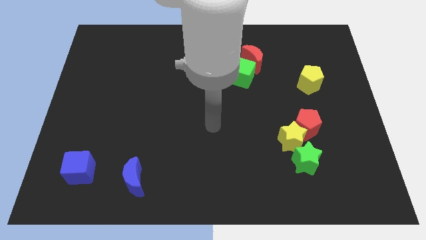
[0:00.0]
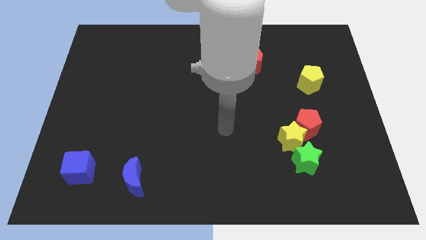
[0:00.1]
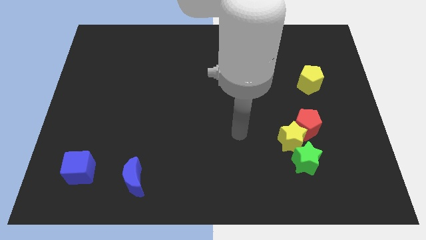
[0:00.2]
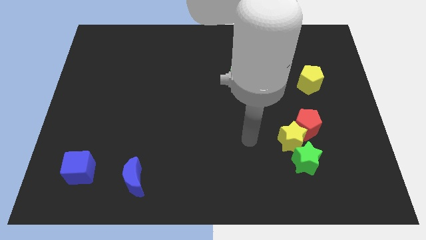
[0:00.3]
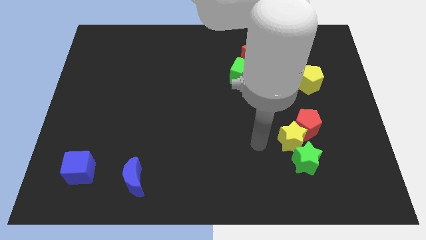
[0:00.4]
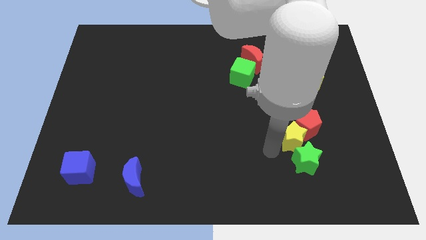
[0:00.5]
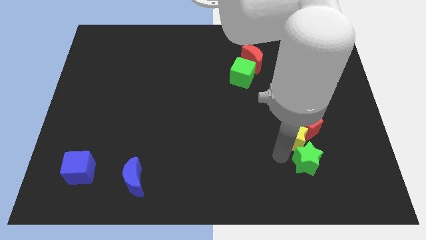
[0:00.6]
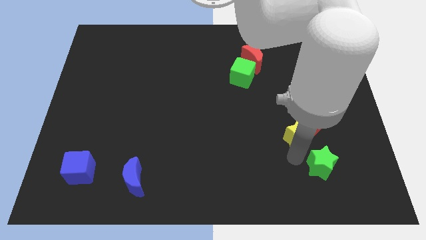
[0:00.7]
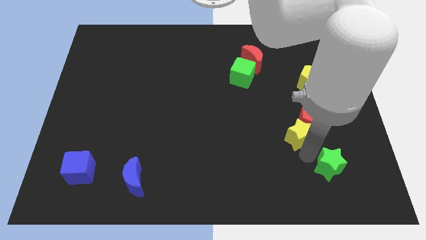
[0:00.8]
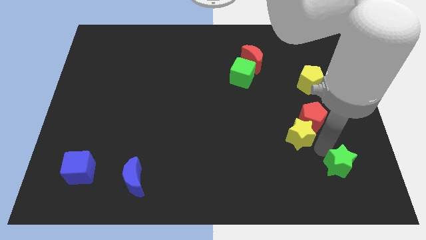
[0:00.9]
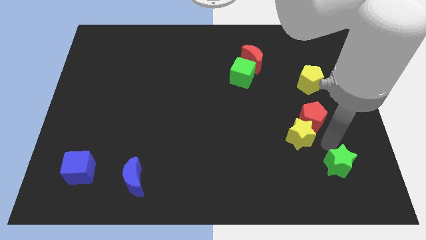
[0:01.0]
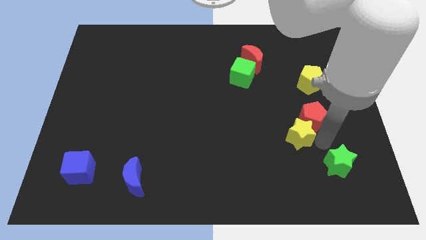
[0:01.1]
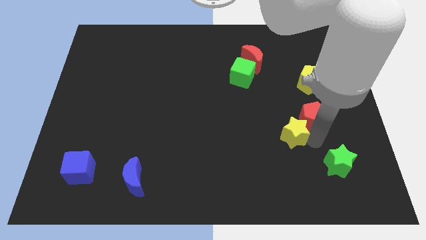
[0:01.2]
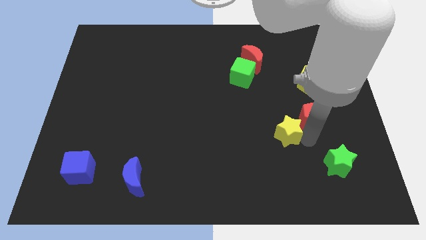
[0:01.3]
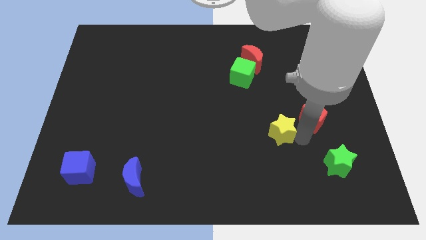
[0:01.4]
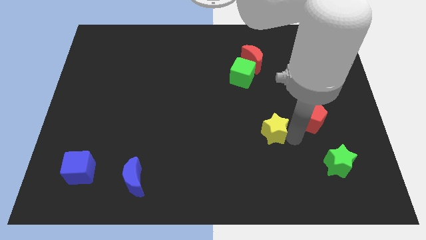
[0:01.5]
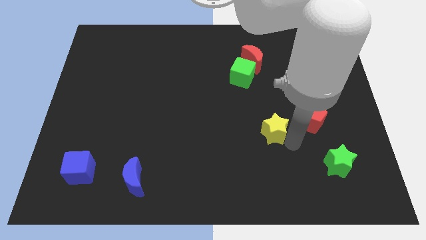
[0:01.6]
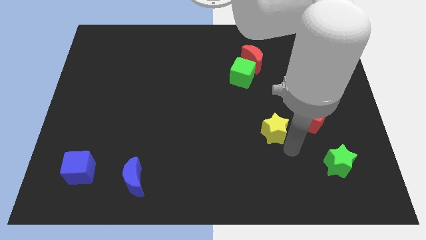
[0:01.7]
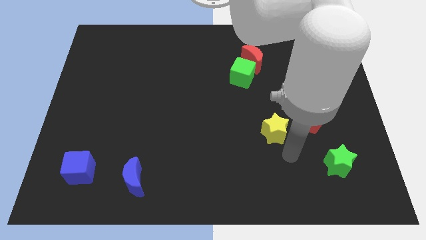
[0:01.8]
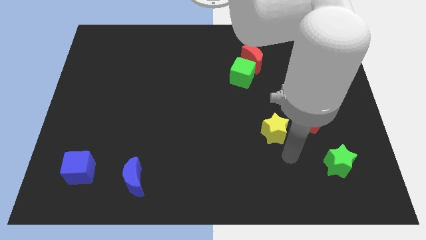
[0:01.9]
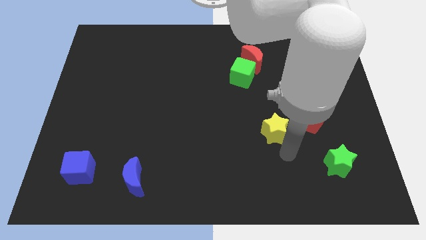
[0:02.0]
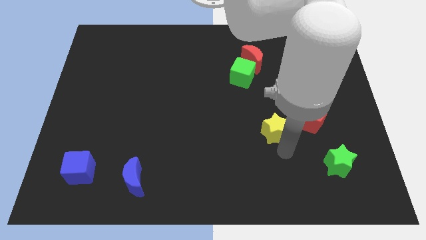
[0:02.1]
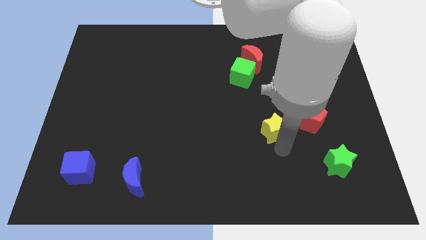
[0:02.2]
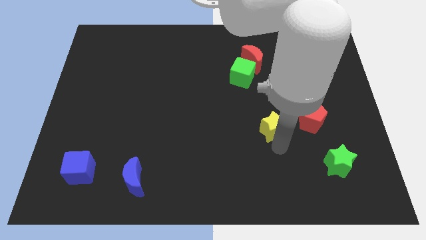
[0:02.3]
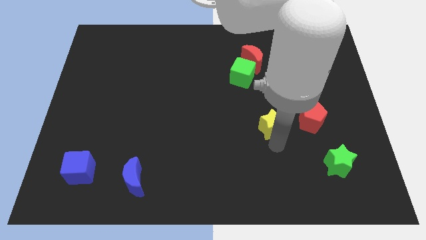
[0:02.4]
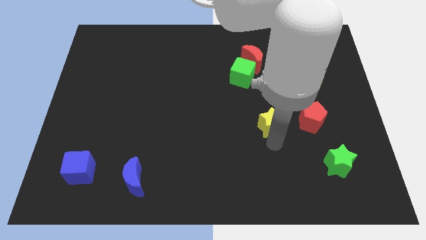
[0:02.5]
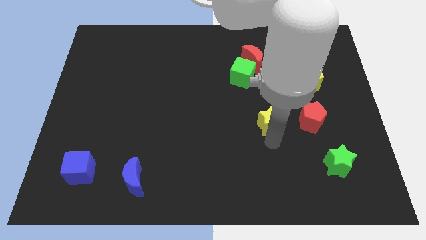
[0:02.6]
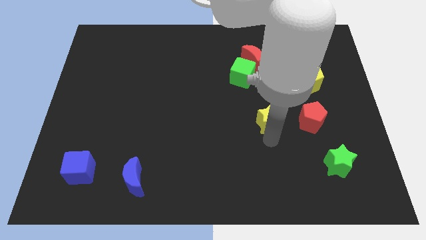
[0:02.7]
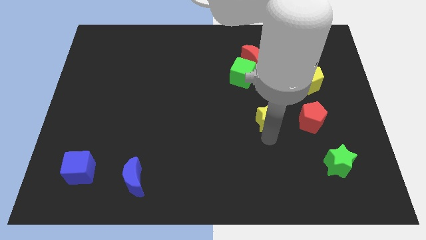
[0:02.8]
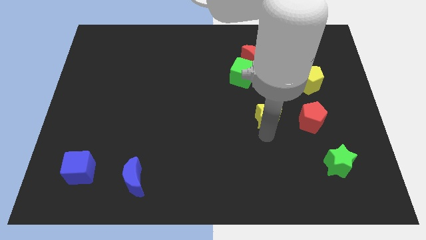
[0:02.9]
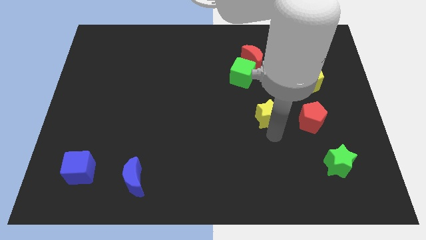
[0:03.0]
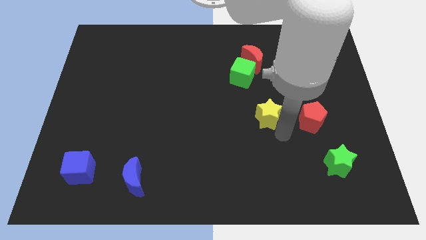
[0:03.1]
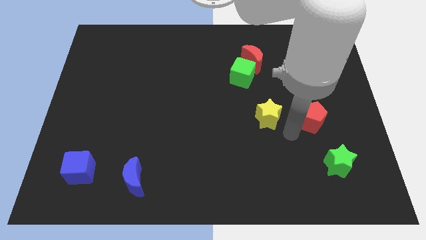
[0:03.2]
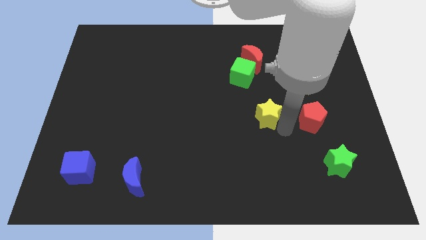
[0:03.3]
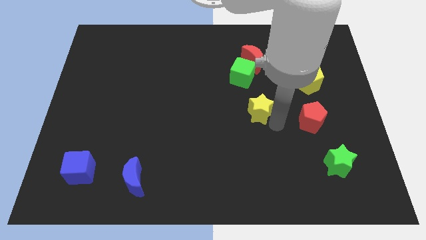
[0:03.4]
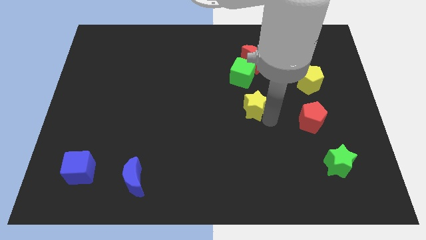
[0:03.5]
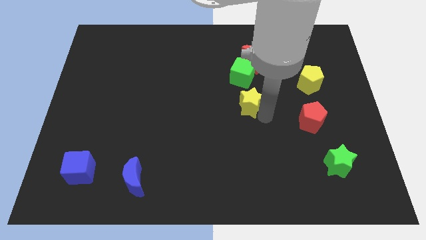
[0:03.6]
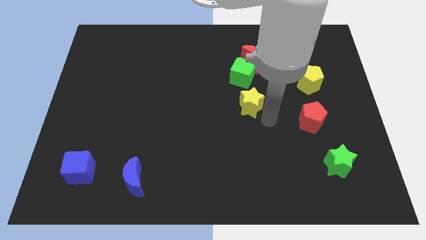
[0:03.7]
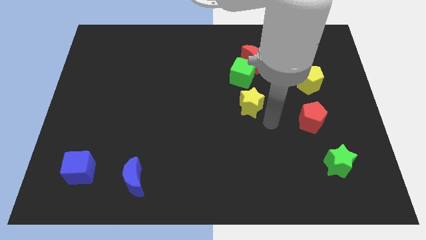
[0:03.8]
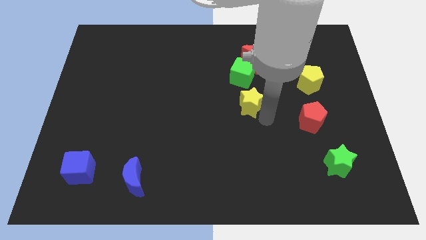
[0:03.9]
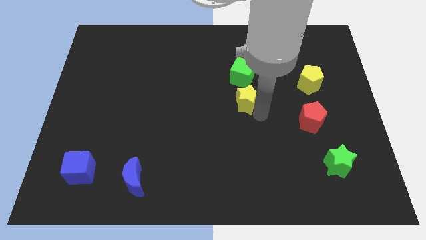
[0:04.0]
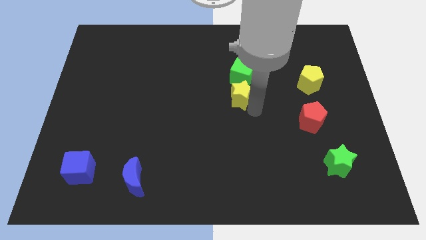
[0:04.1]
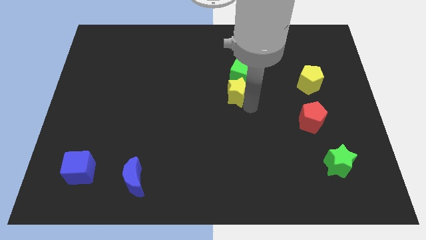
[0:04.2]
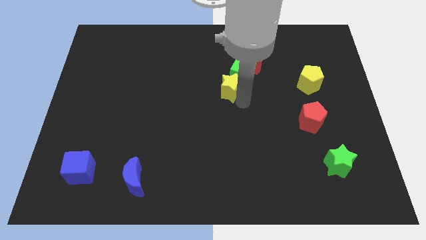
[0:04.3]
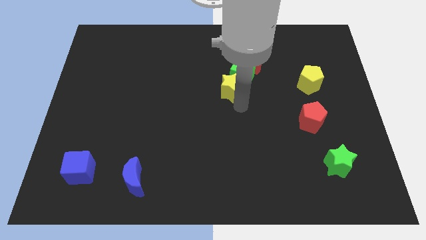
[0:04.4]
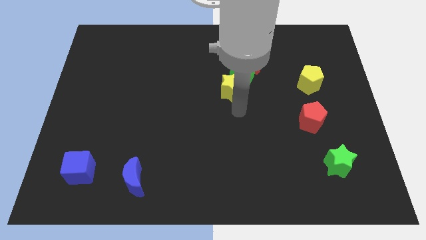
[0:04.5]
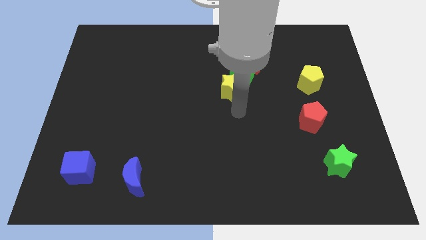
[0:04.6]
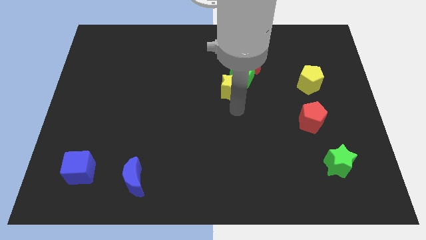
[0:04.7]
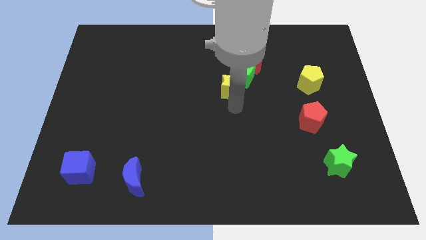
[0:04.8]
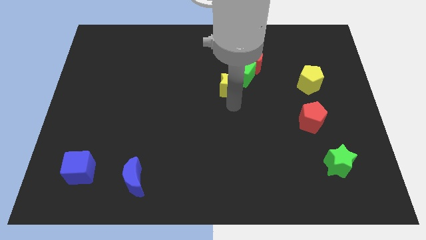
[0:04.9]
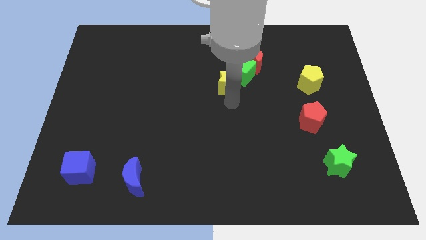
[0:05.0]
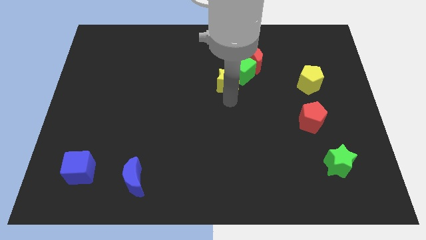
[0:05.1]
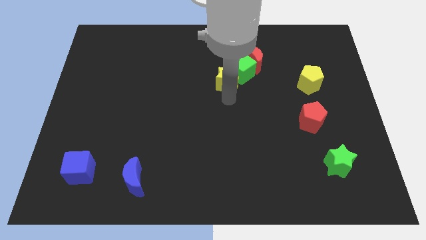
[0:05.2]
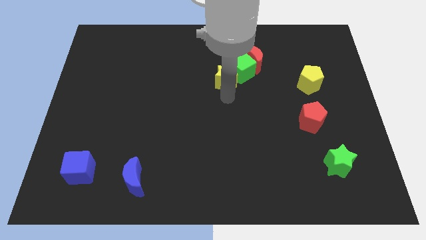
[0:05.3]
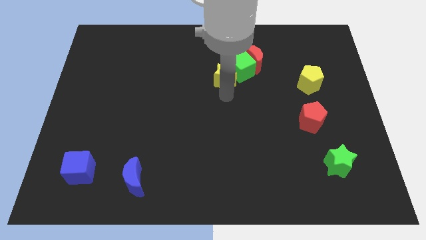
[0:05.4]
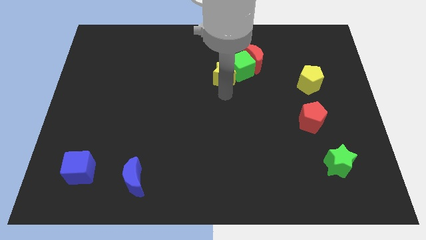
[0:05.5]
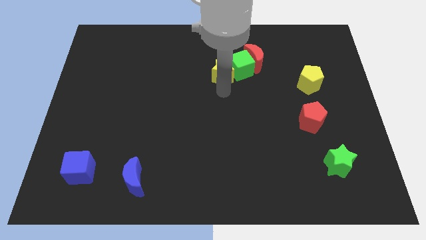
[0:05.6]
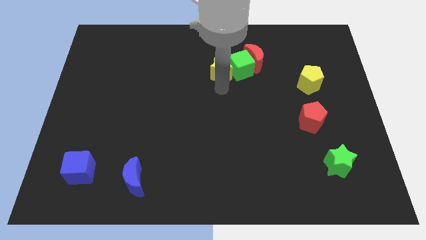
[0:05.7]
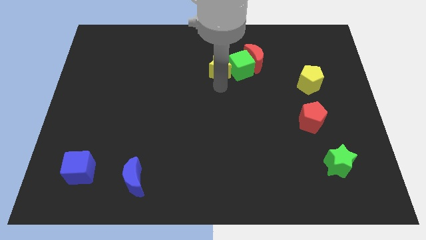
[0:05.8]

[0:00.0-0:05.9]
slide the yellow star to the top left of the green cube

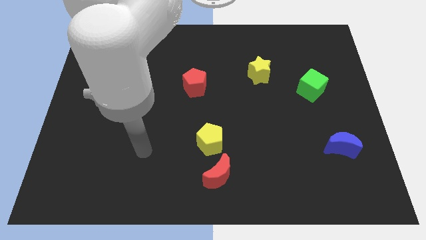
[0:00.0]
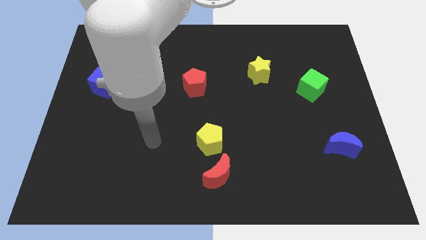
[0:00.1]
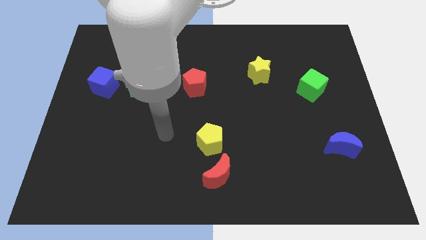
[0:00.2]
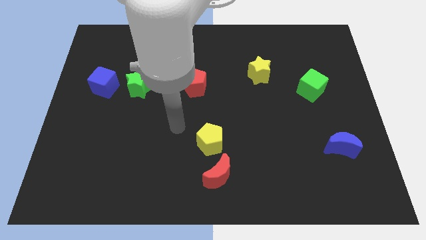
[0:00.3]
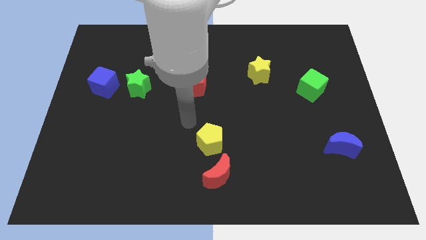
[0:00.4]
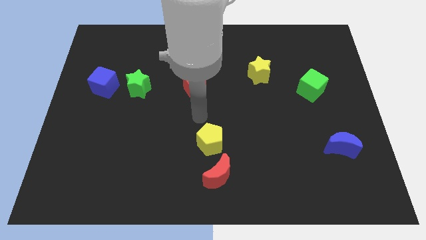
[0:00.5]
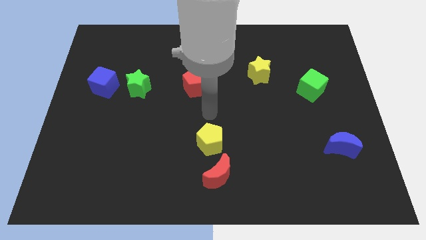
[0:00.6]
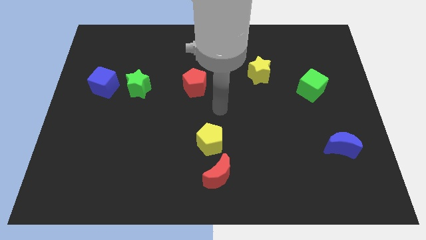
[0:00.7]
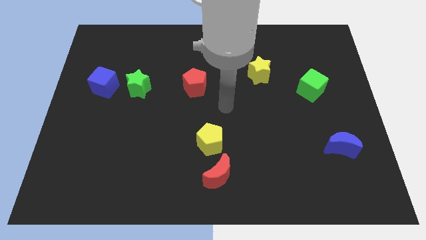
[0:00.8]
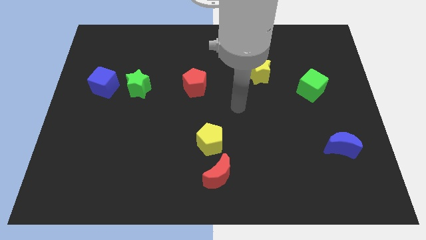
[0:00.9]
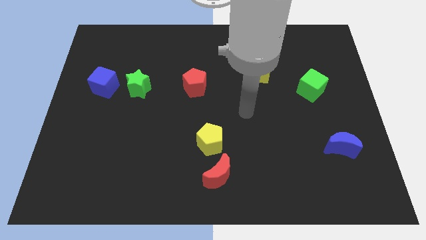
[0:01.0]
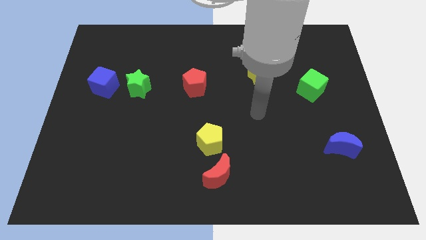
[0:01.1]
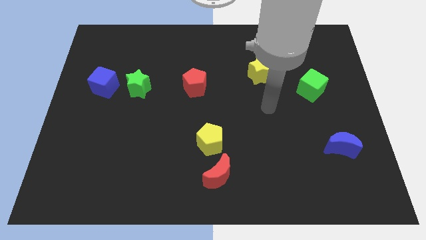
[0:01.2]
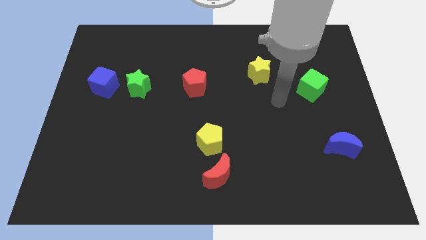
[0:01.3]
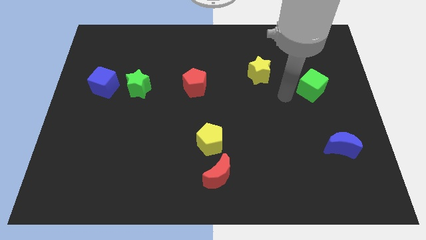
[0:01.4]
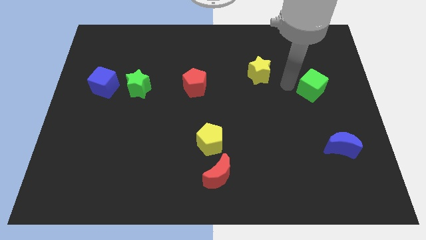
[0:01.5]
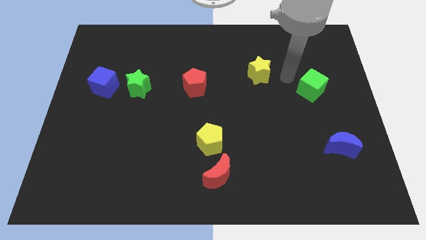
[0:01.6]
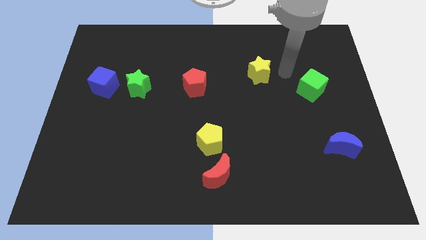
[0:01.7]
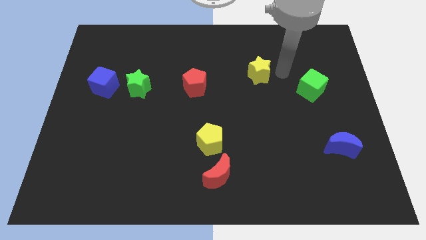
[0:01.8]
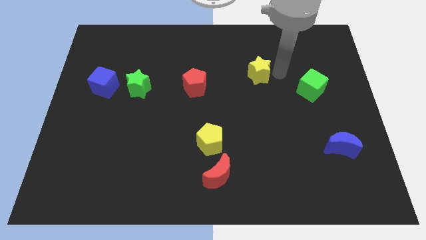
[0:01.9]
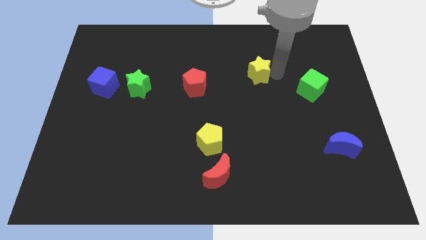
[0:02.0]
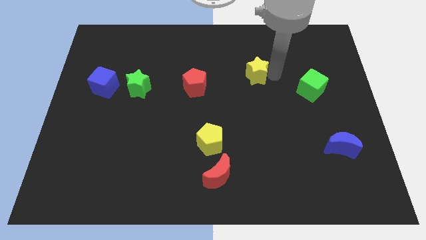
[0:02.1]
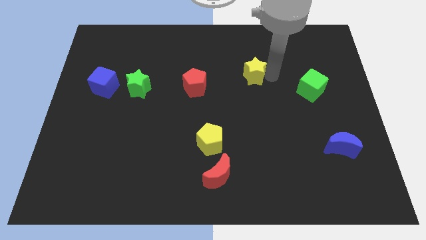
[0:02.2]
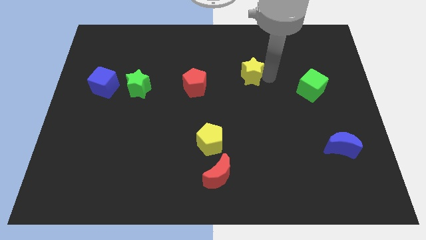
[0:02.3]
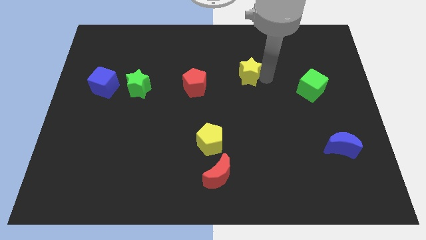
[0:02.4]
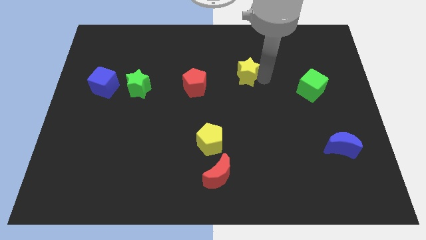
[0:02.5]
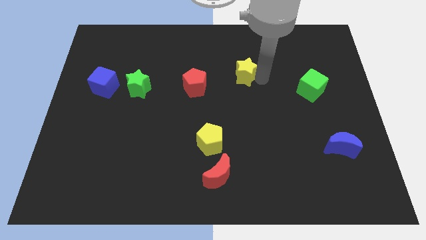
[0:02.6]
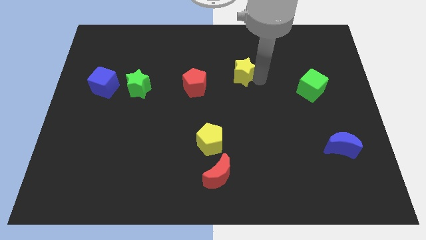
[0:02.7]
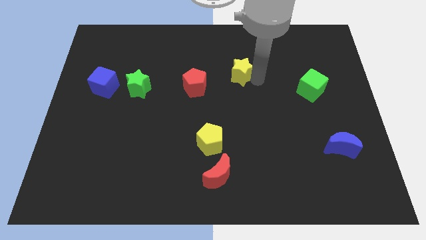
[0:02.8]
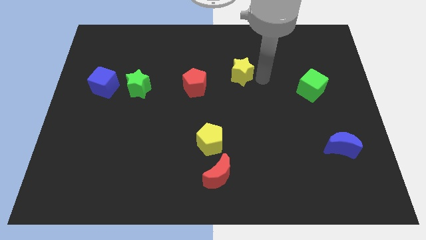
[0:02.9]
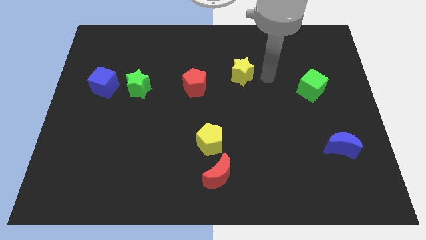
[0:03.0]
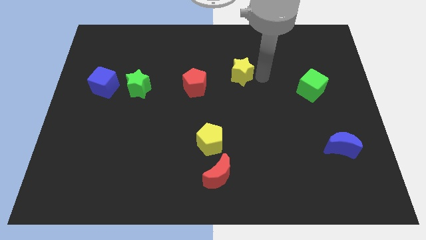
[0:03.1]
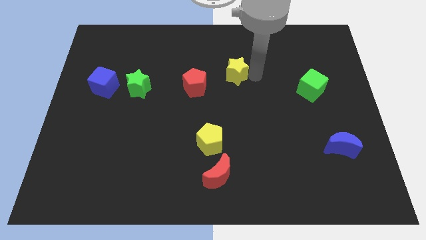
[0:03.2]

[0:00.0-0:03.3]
move the yellow star to the top right of the red pentagon
